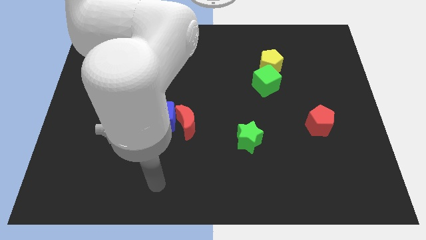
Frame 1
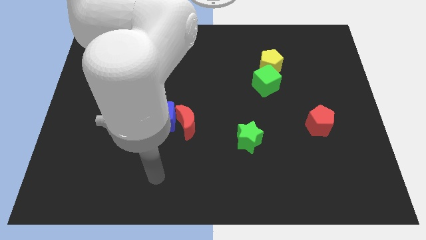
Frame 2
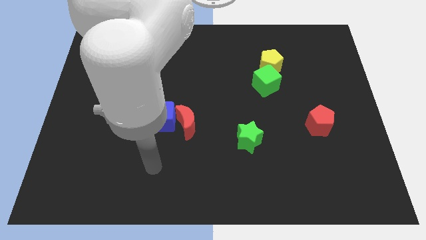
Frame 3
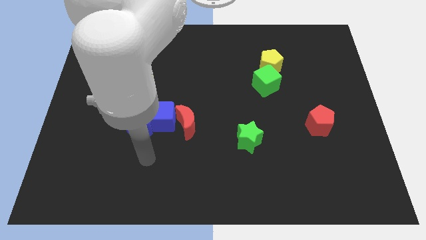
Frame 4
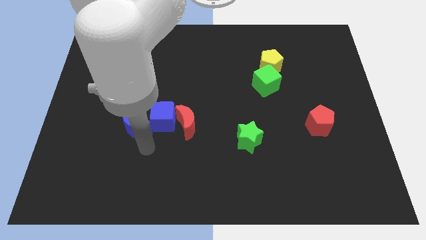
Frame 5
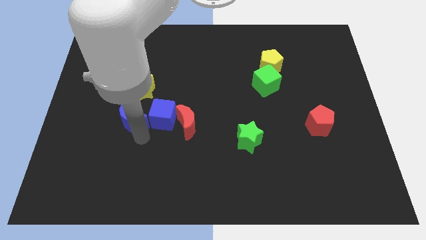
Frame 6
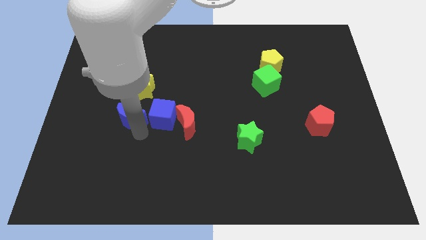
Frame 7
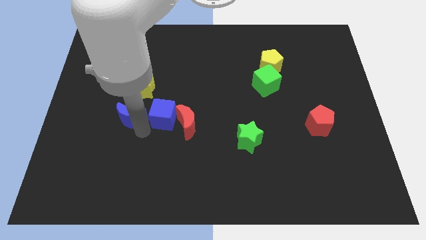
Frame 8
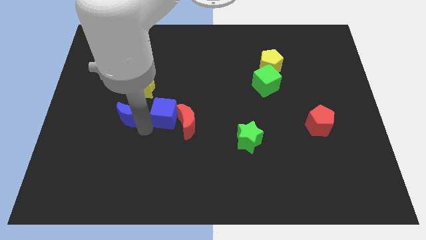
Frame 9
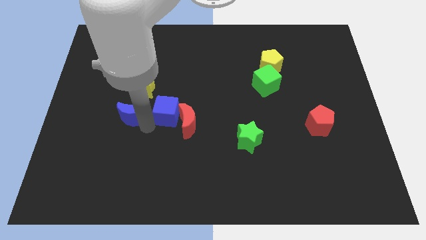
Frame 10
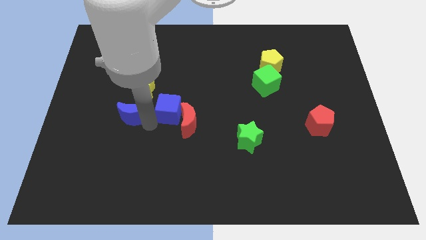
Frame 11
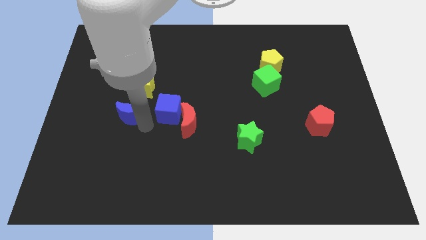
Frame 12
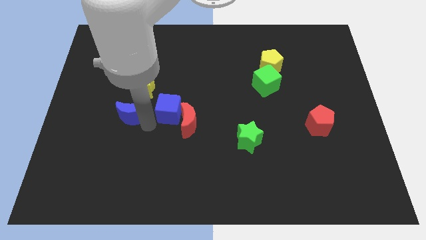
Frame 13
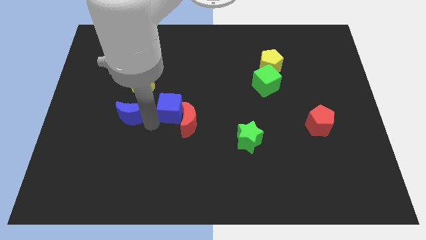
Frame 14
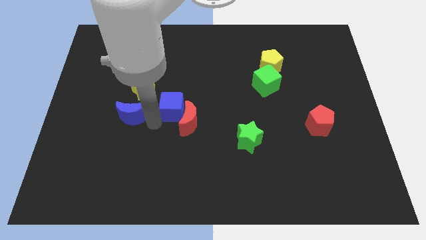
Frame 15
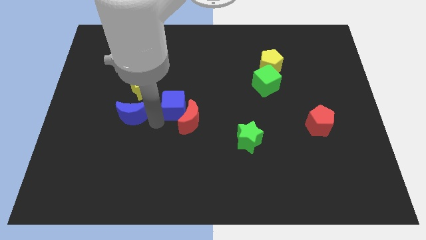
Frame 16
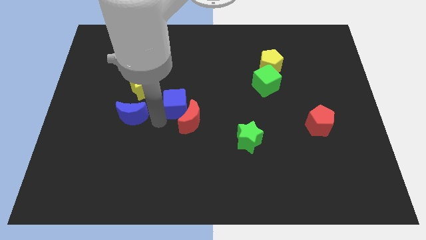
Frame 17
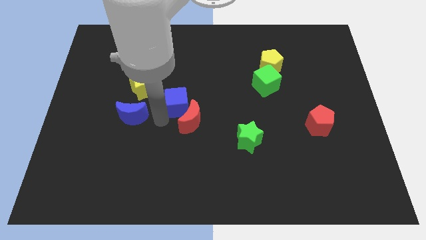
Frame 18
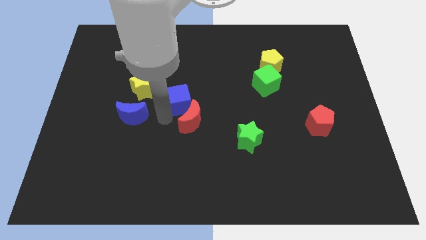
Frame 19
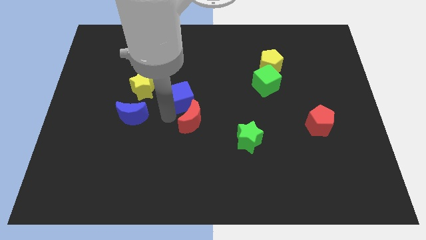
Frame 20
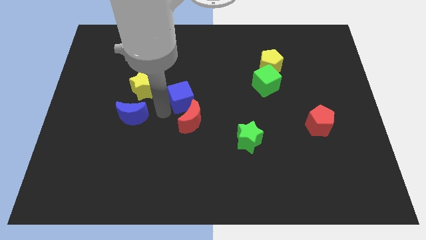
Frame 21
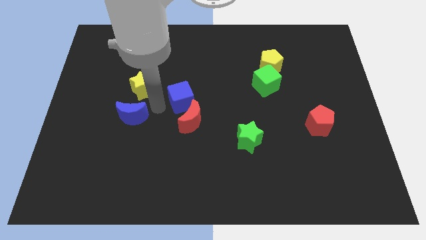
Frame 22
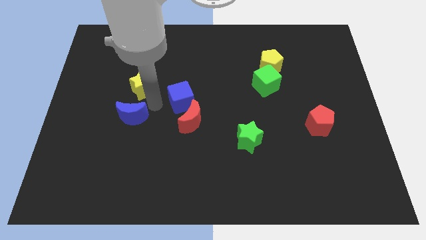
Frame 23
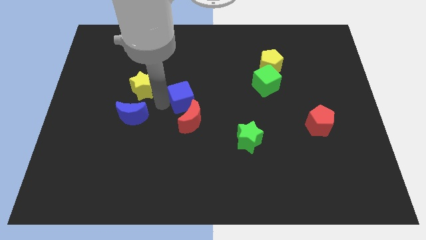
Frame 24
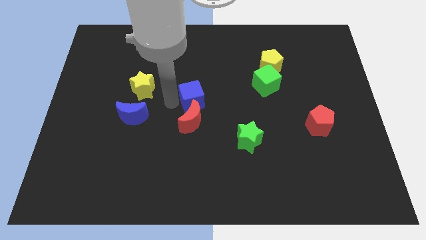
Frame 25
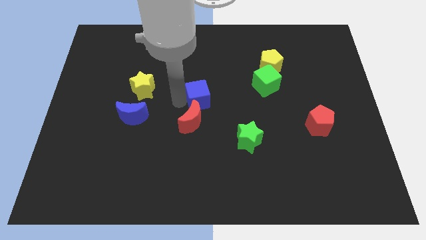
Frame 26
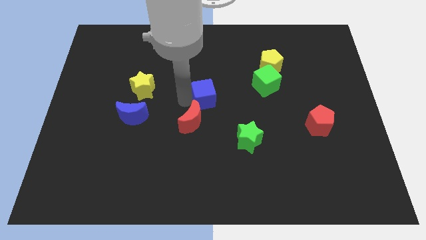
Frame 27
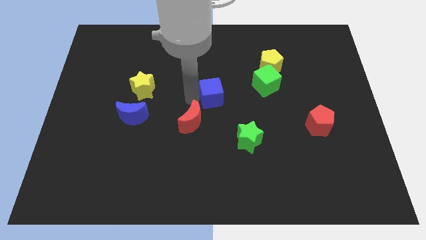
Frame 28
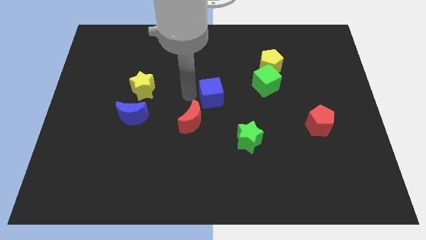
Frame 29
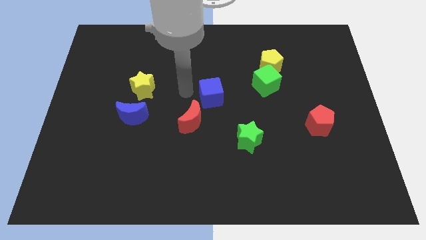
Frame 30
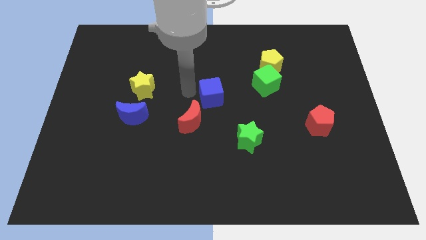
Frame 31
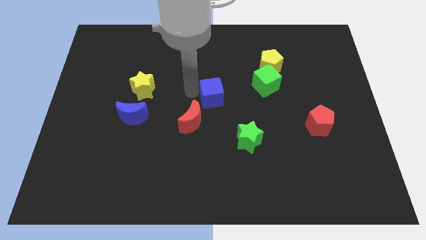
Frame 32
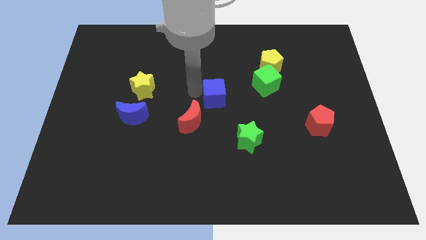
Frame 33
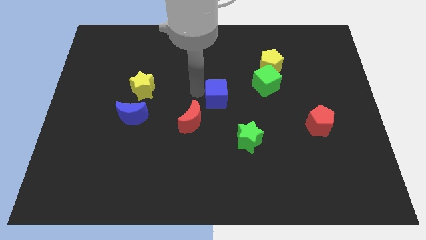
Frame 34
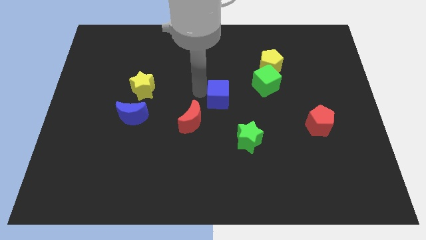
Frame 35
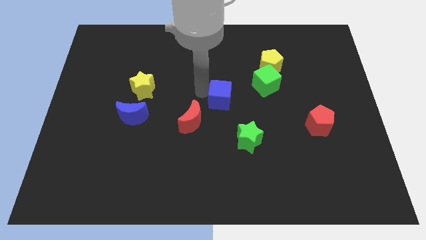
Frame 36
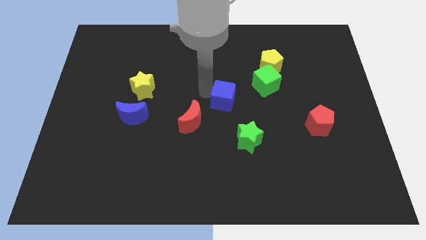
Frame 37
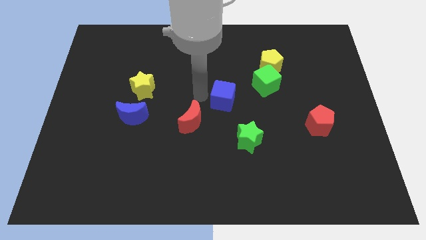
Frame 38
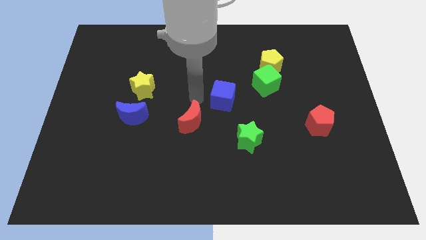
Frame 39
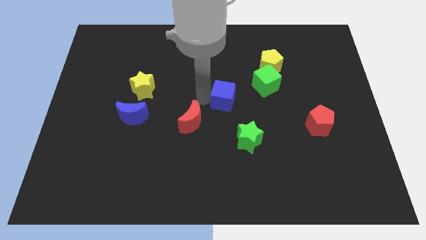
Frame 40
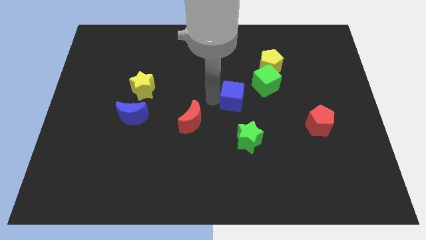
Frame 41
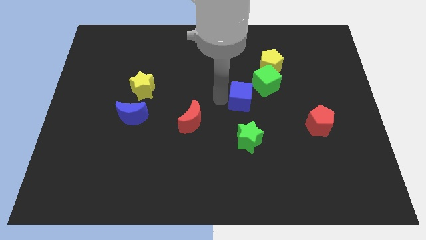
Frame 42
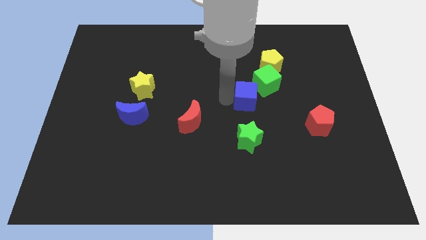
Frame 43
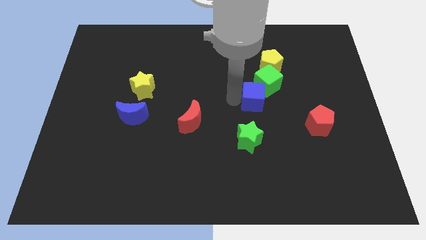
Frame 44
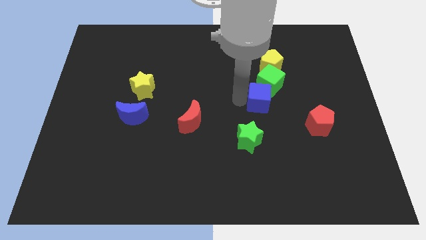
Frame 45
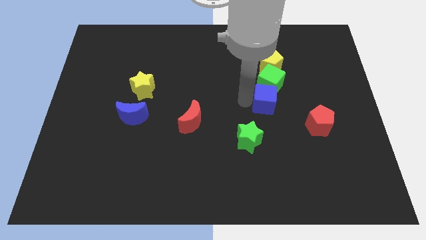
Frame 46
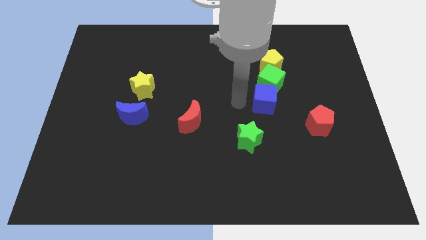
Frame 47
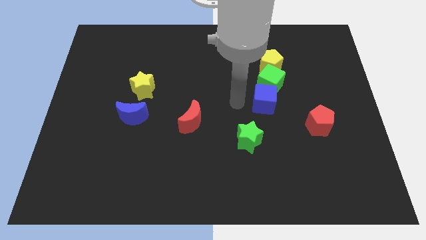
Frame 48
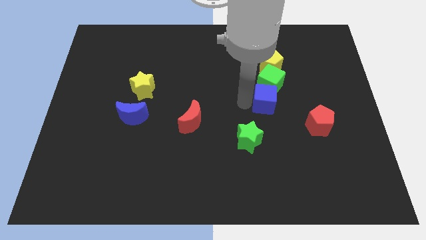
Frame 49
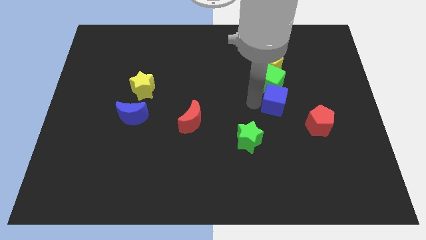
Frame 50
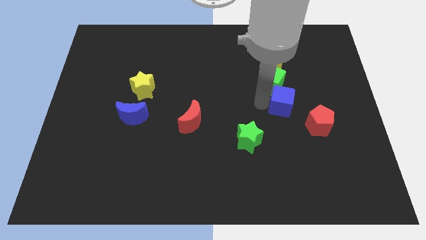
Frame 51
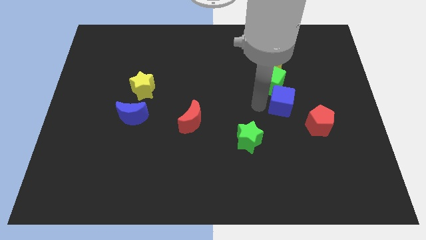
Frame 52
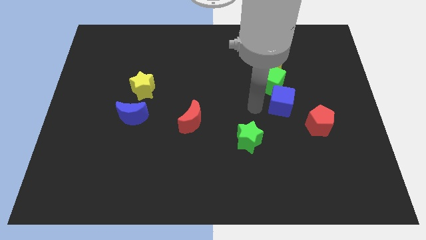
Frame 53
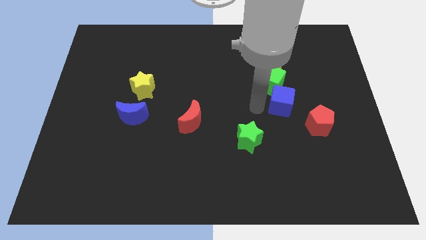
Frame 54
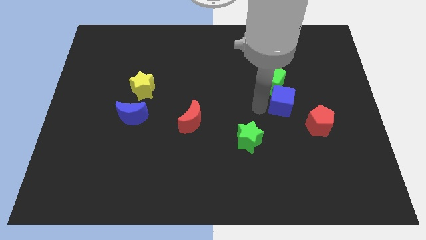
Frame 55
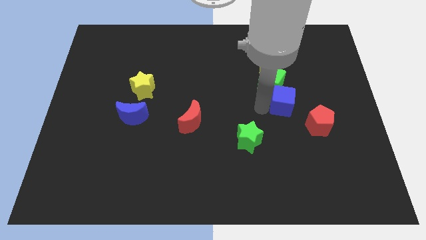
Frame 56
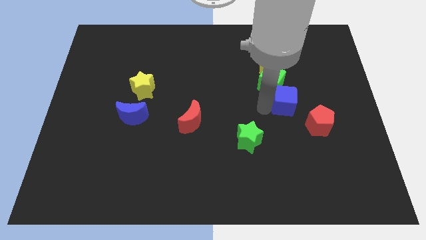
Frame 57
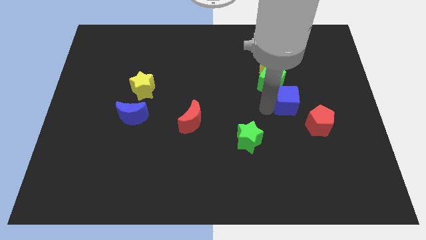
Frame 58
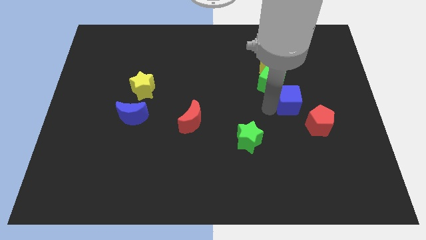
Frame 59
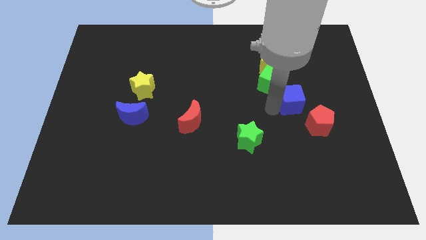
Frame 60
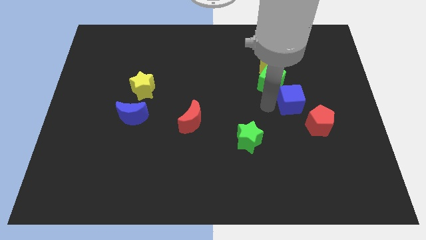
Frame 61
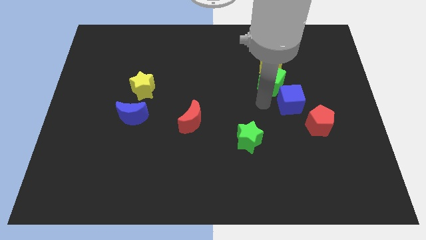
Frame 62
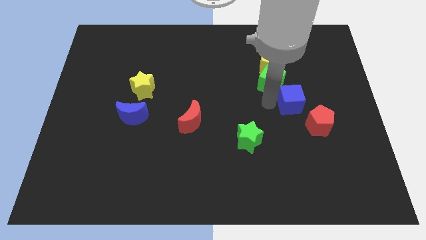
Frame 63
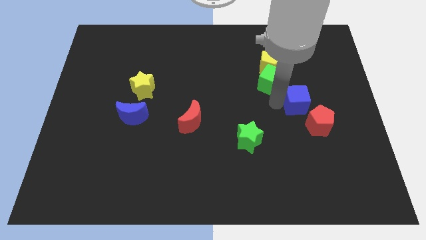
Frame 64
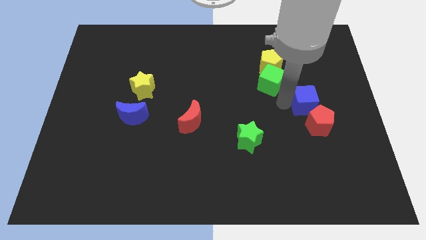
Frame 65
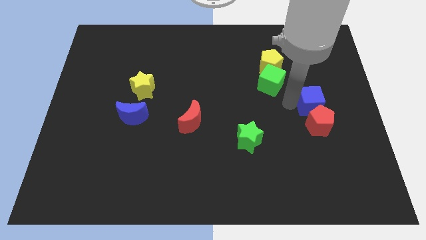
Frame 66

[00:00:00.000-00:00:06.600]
move the blue cube to the top right side of the red pentagon
